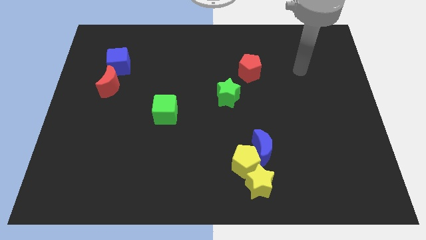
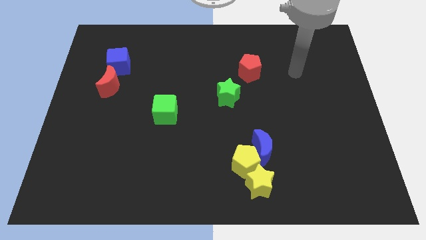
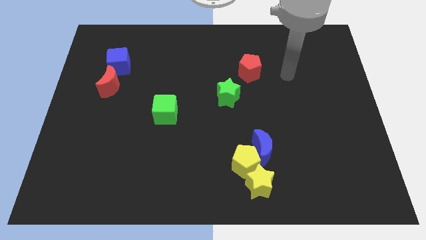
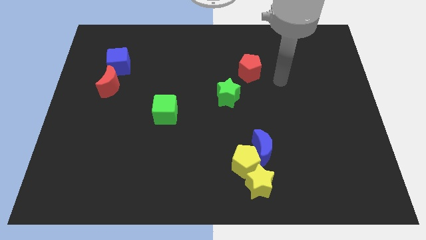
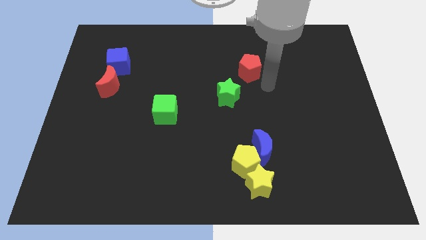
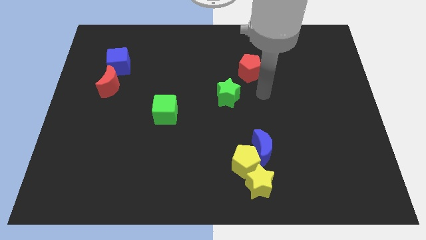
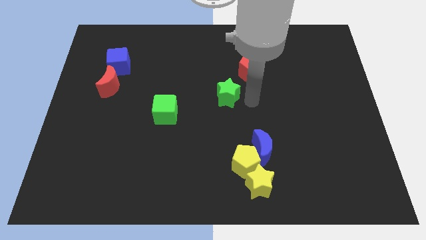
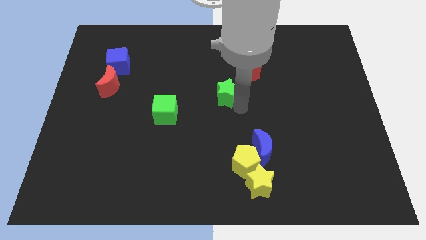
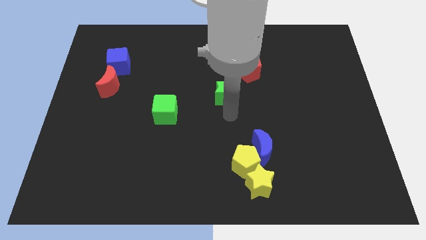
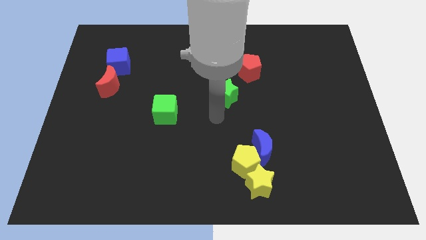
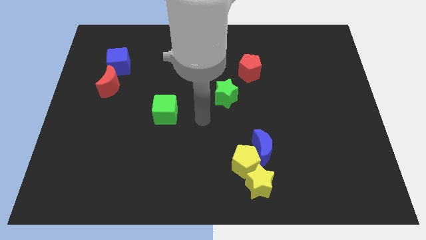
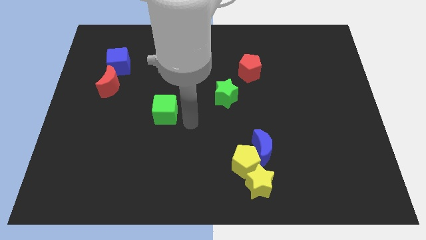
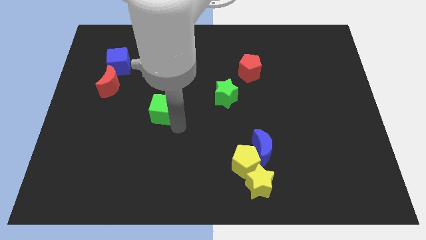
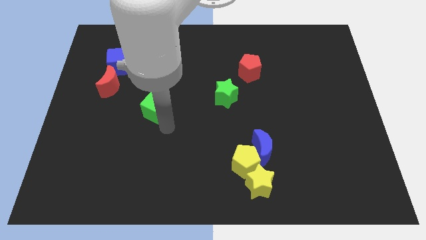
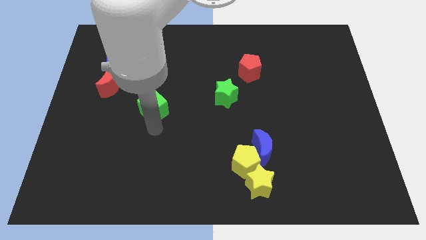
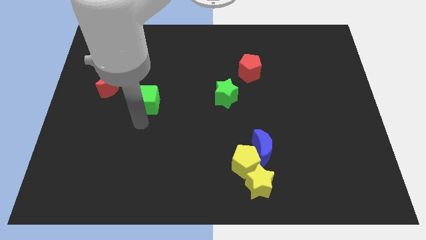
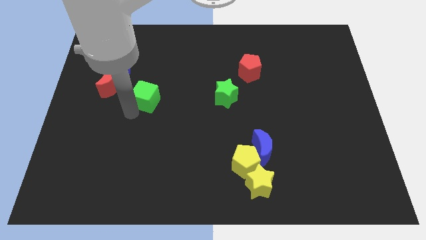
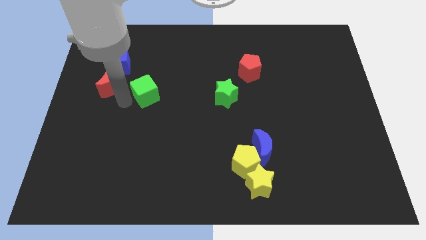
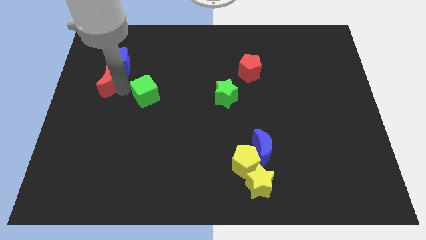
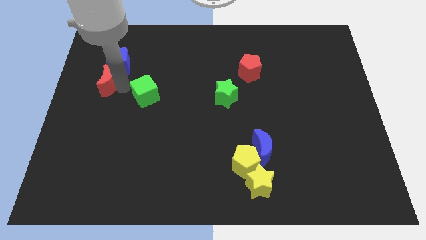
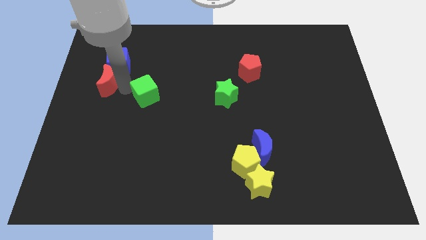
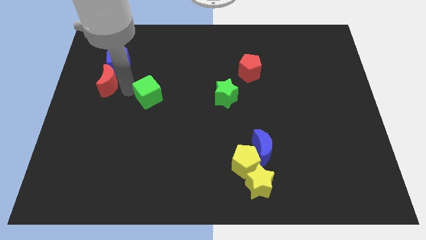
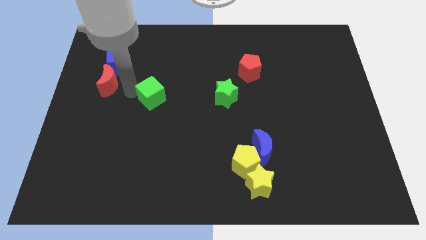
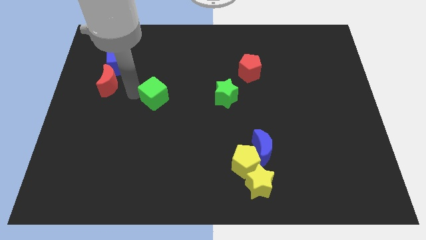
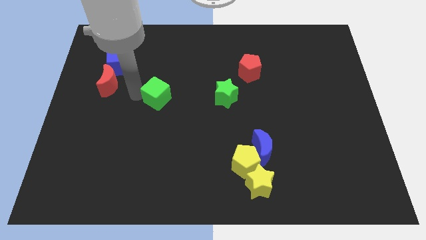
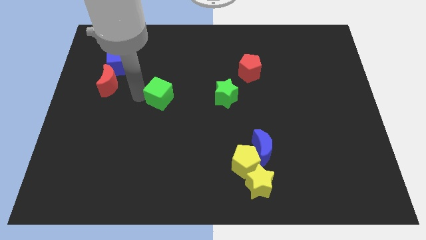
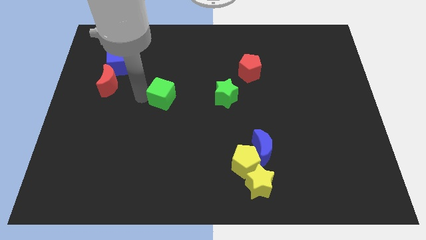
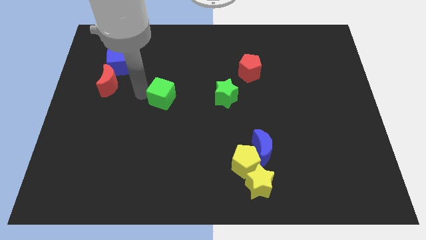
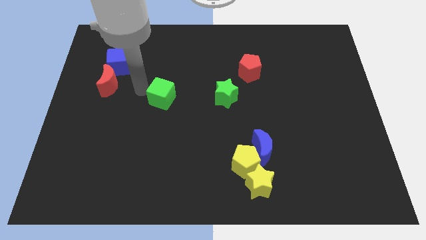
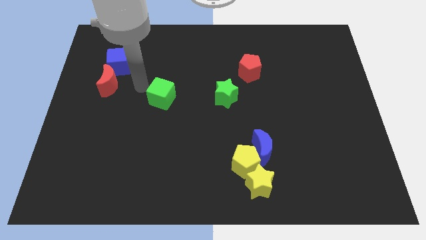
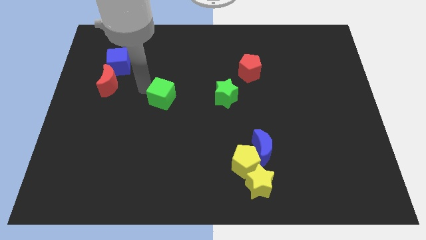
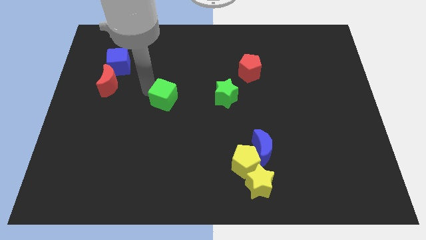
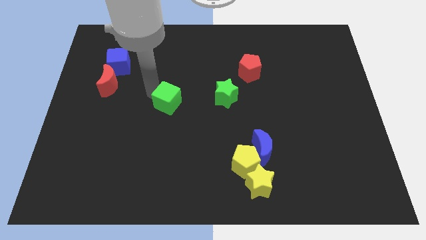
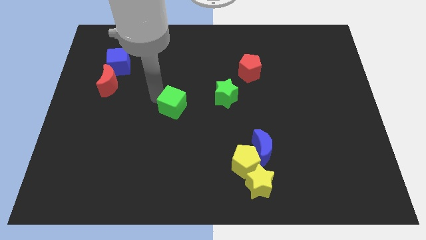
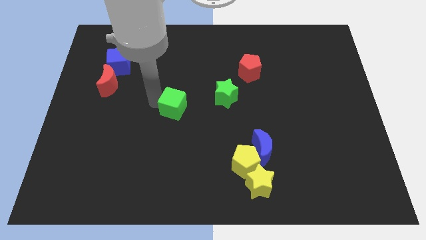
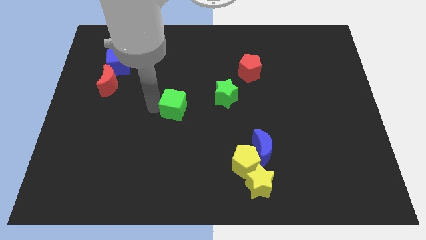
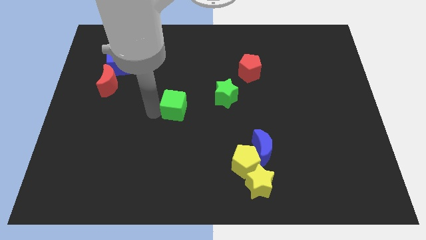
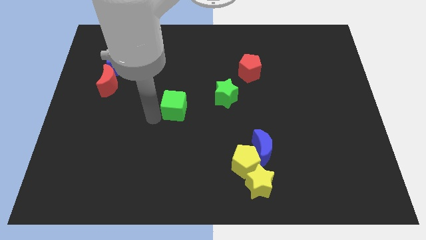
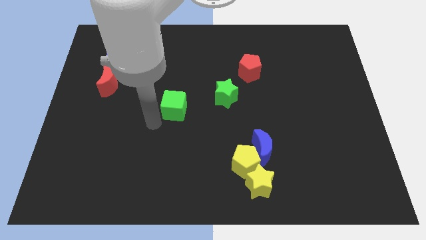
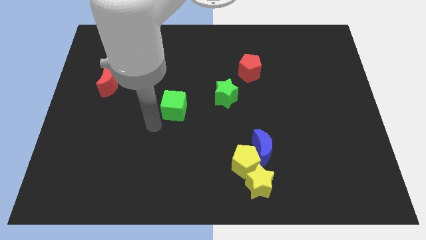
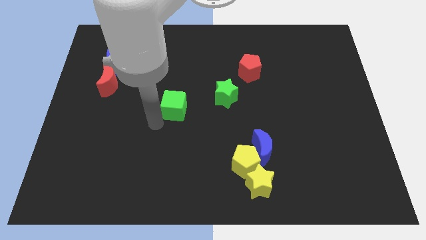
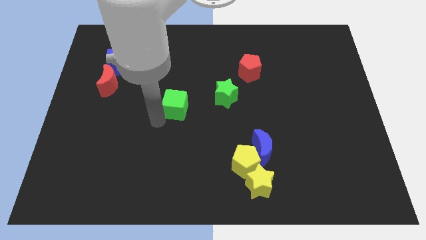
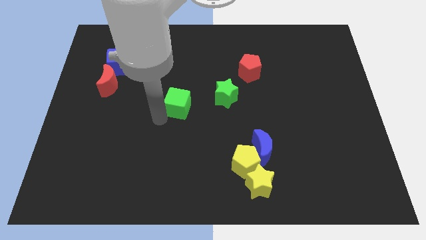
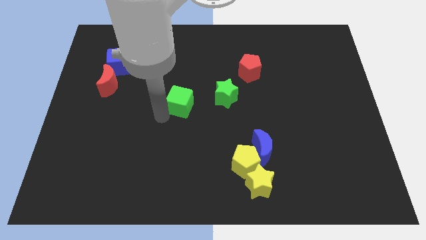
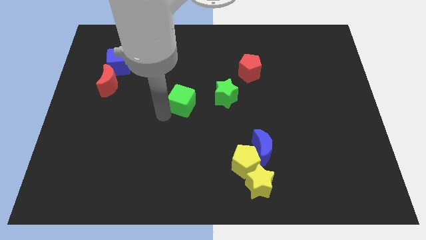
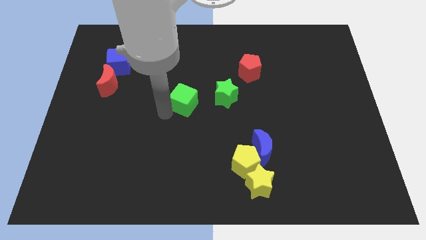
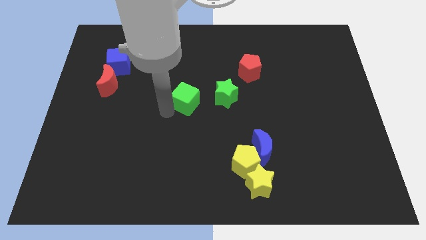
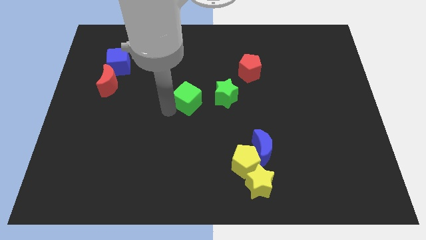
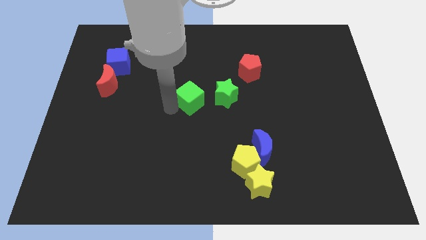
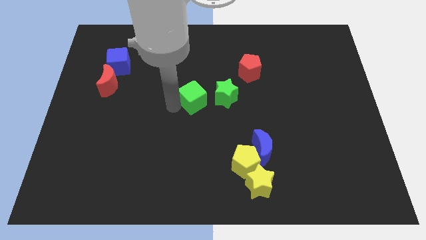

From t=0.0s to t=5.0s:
slightly slide the green cube up and right diagonally

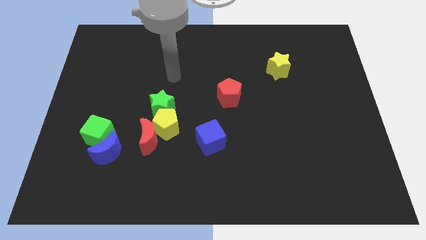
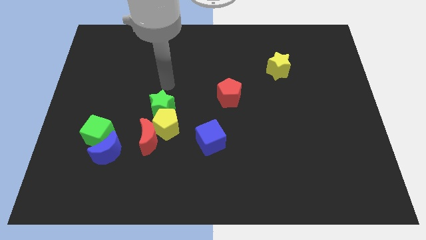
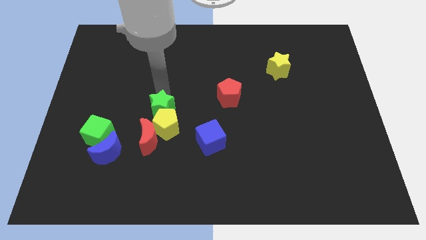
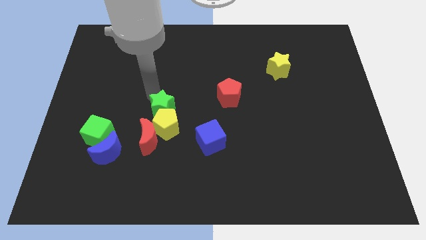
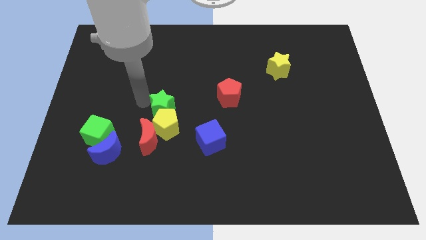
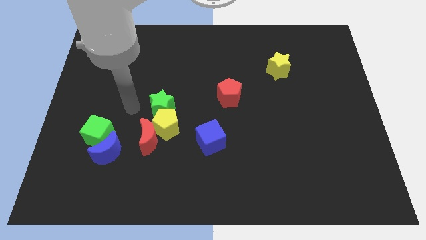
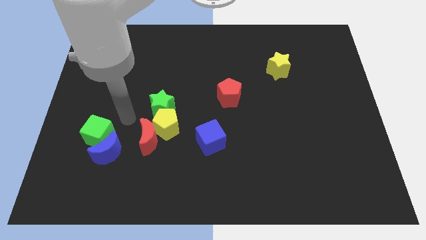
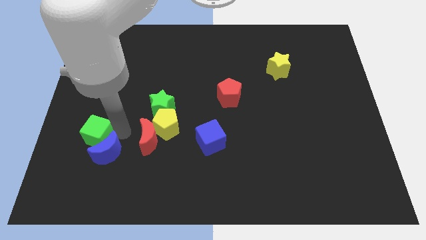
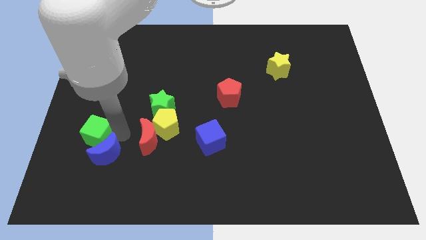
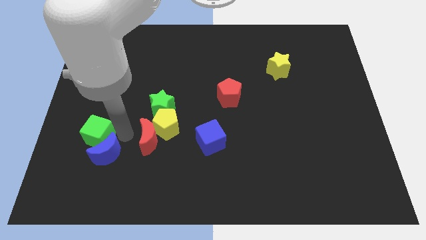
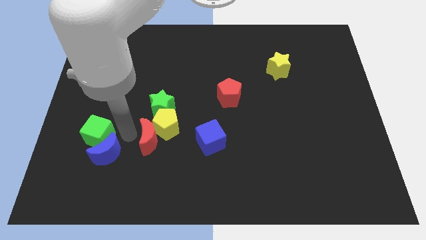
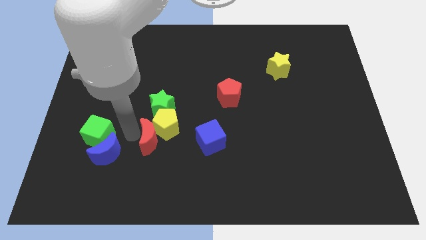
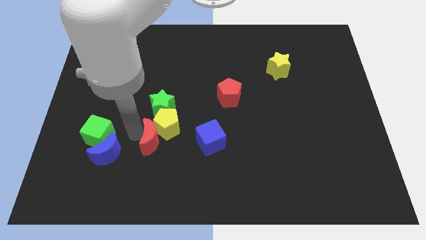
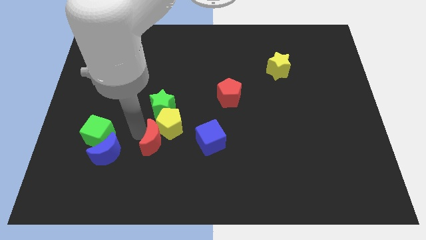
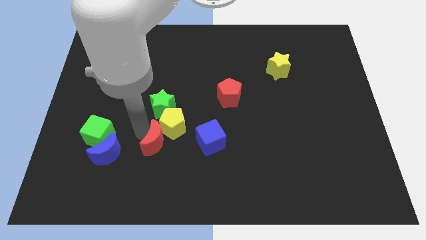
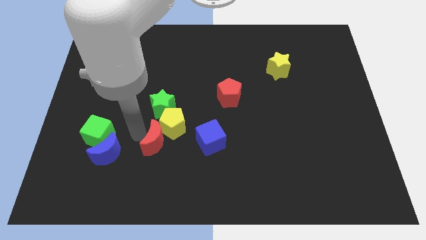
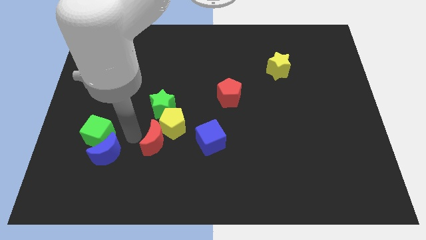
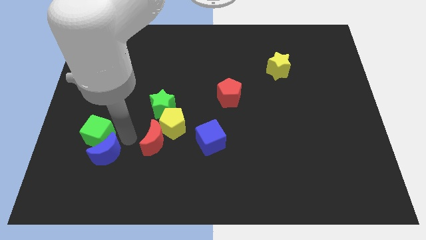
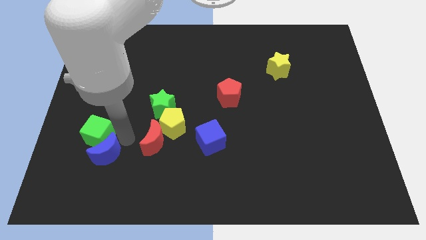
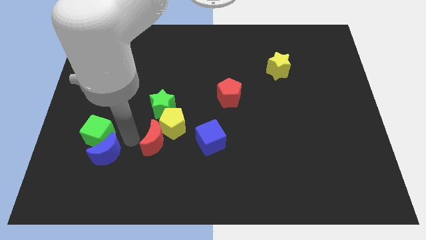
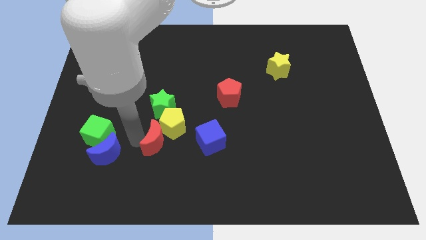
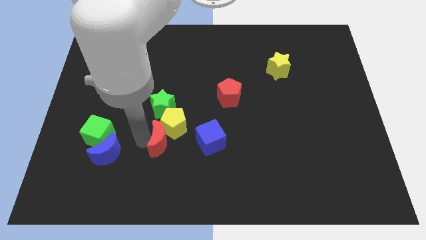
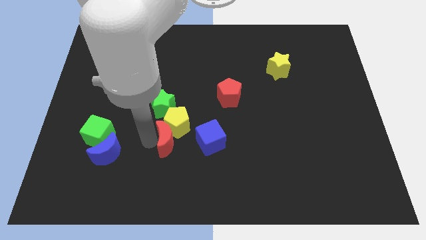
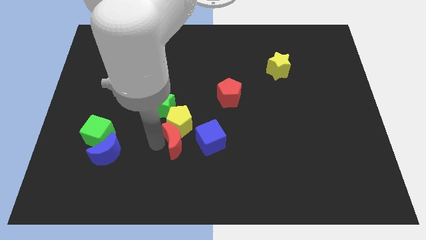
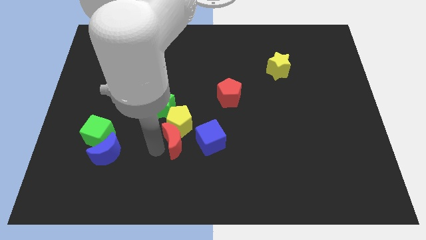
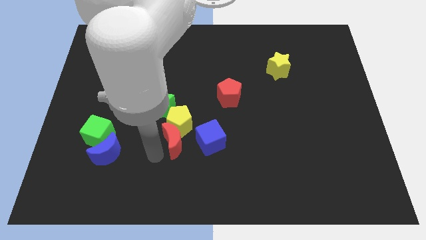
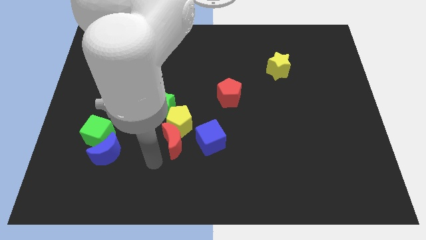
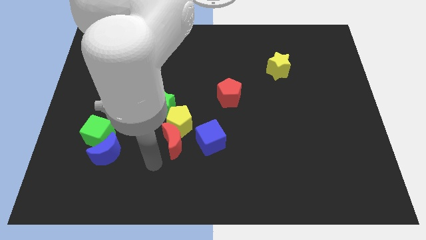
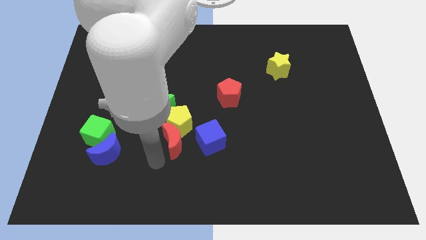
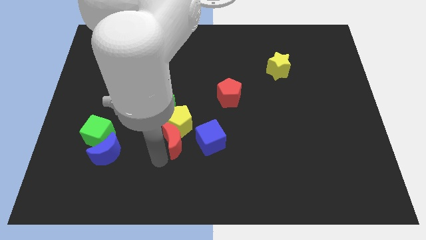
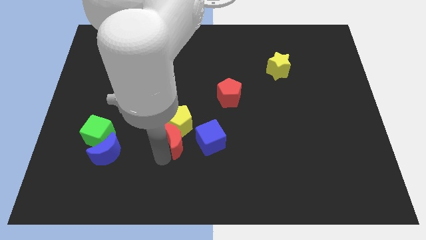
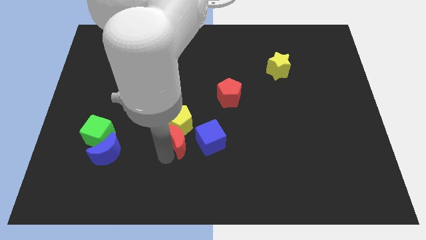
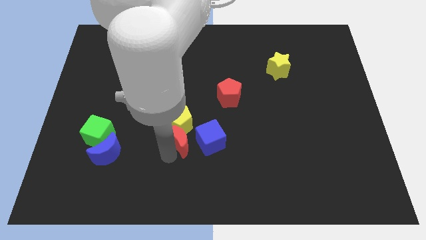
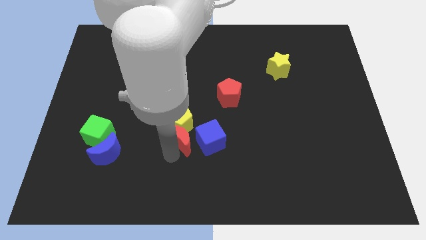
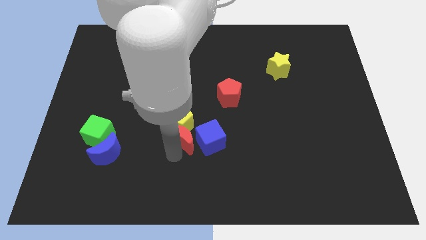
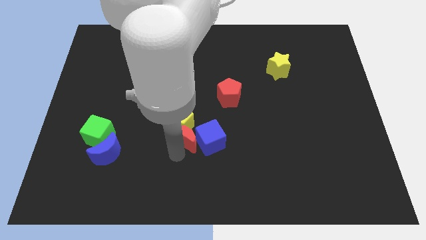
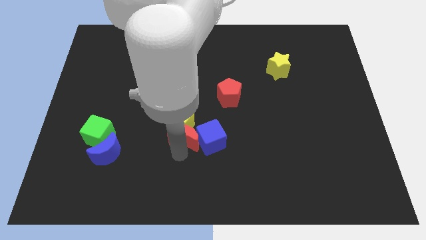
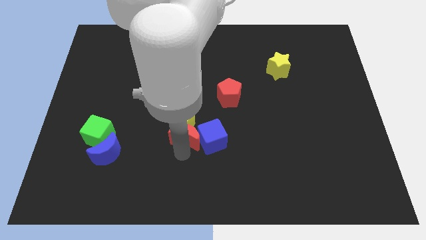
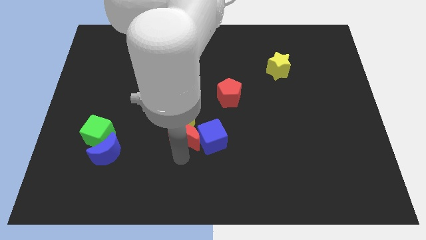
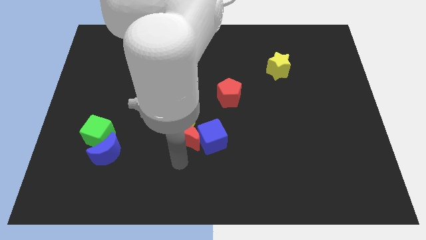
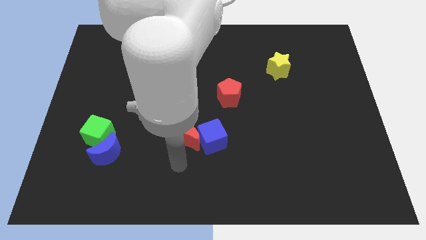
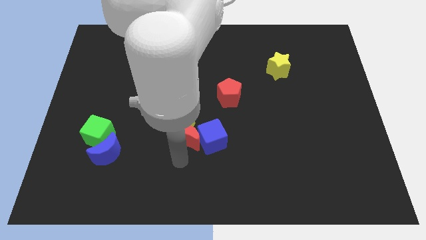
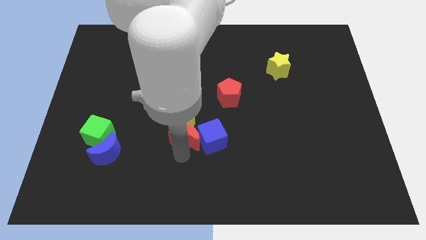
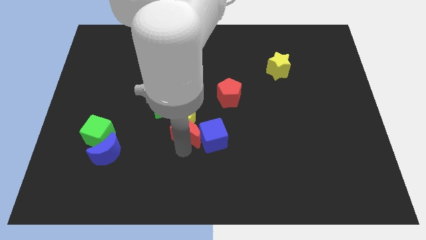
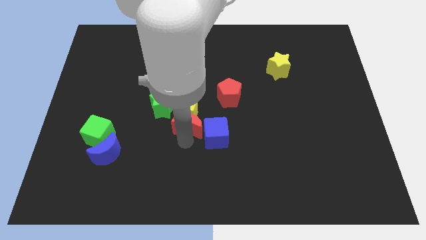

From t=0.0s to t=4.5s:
slightly move the red moon diagonally upwards and right
